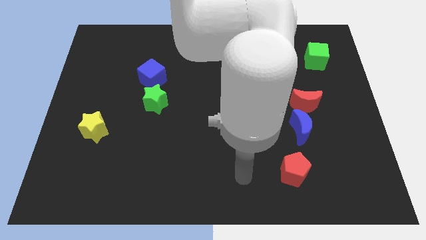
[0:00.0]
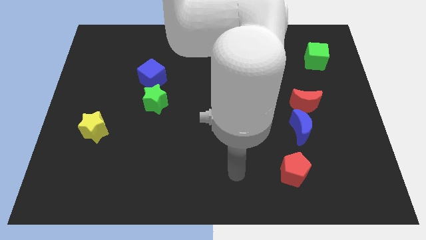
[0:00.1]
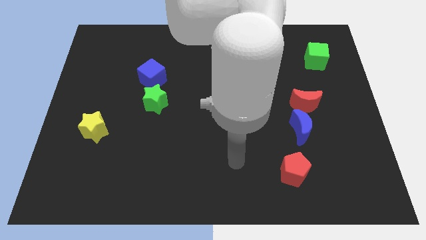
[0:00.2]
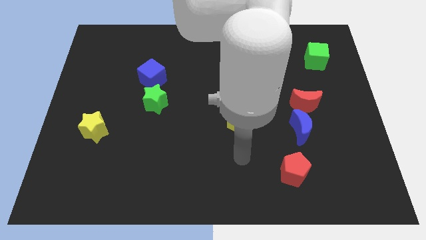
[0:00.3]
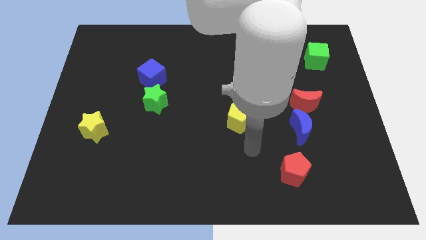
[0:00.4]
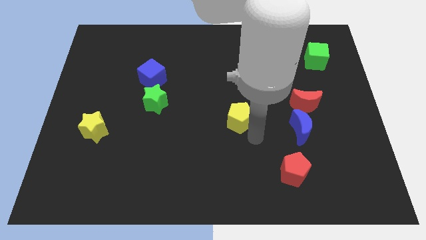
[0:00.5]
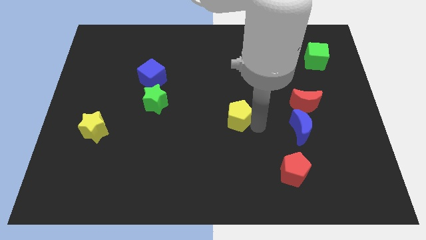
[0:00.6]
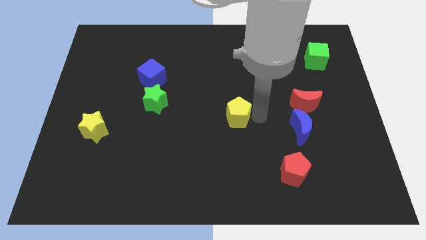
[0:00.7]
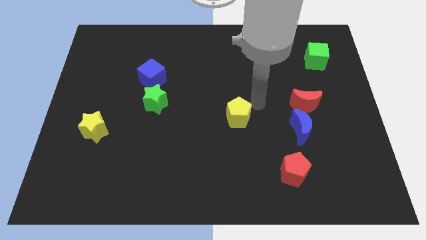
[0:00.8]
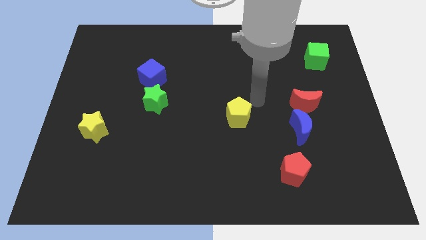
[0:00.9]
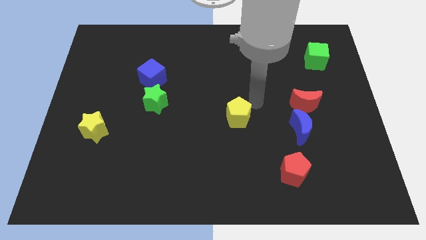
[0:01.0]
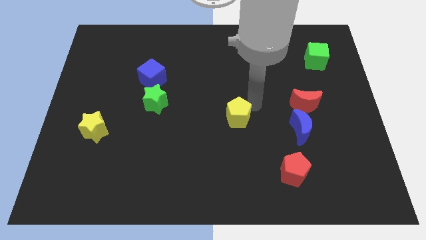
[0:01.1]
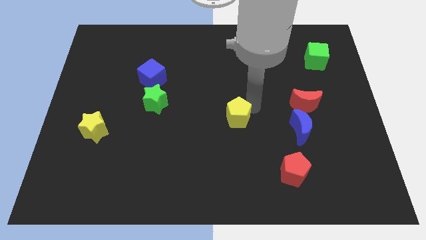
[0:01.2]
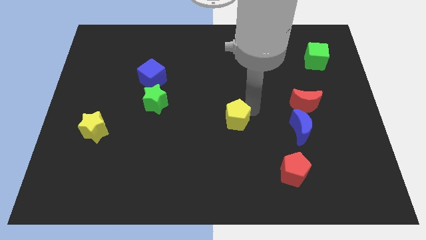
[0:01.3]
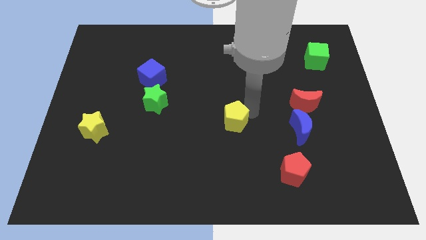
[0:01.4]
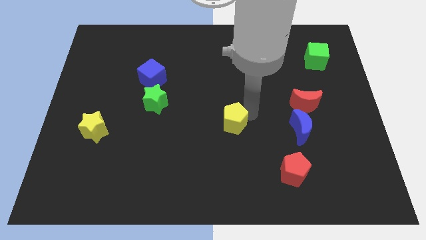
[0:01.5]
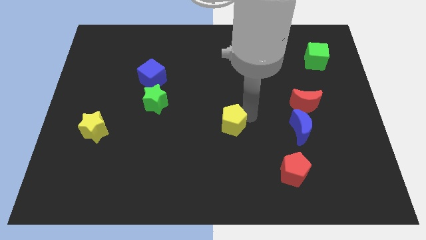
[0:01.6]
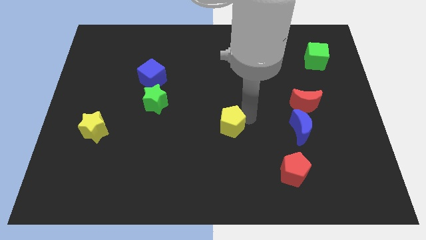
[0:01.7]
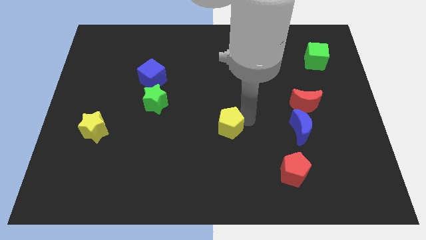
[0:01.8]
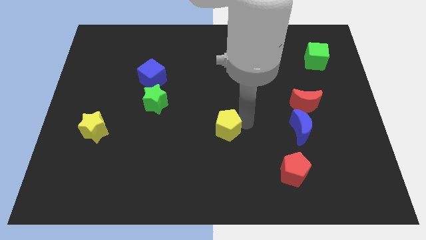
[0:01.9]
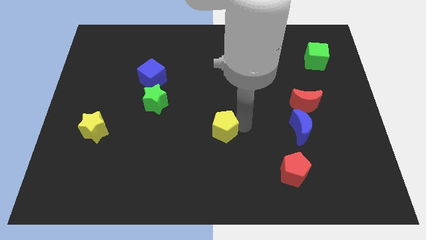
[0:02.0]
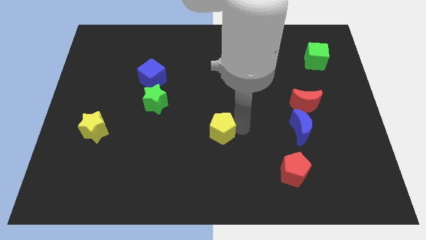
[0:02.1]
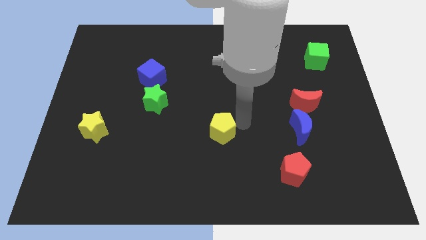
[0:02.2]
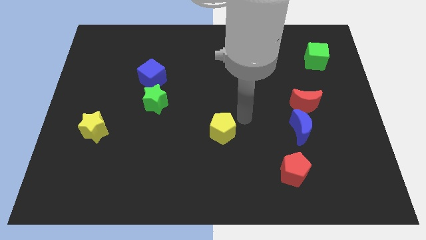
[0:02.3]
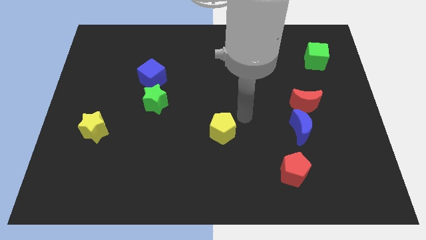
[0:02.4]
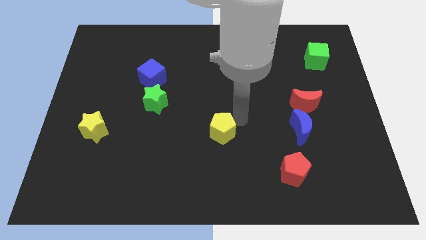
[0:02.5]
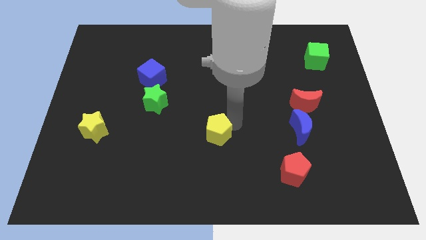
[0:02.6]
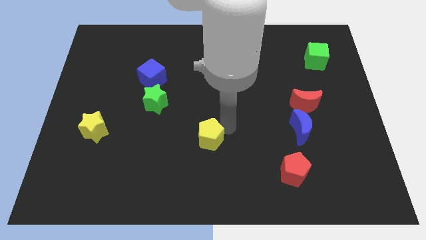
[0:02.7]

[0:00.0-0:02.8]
slightly slide the yellow pentagon downwards and left diagonally

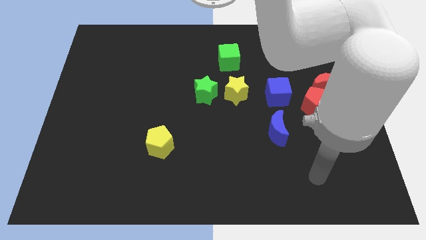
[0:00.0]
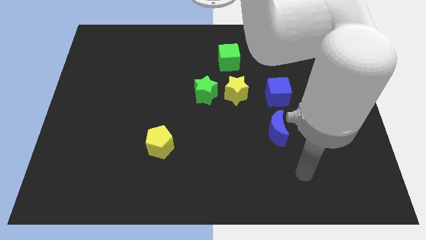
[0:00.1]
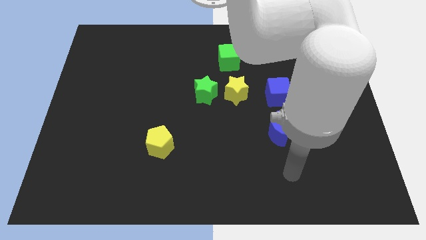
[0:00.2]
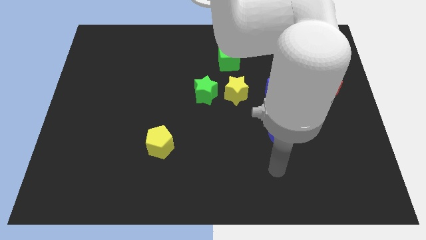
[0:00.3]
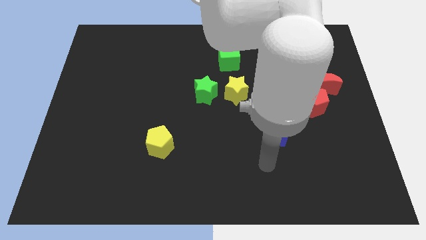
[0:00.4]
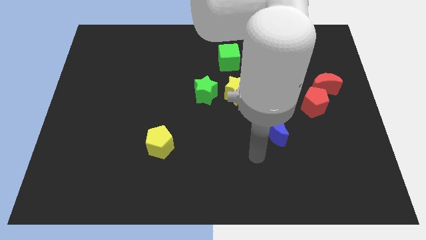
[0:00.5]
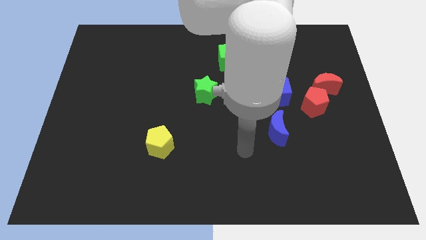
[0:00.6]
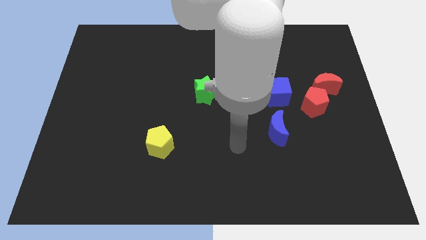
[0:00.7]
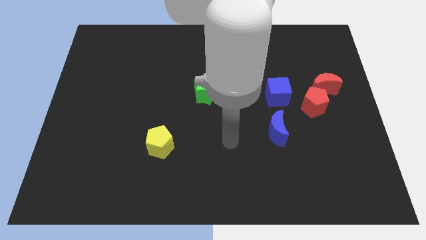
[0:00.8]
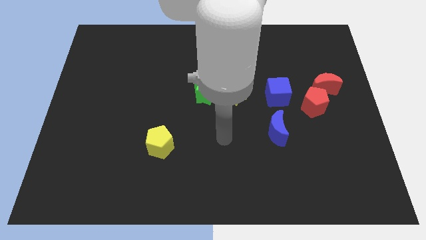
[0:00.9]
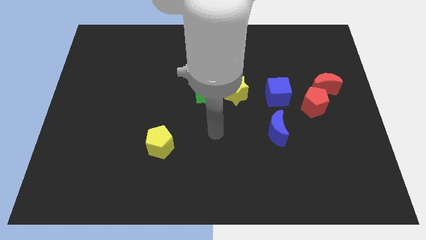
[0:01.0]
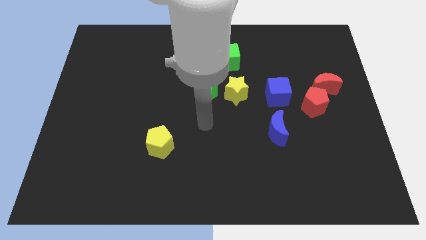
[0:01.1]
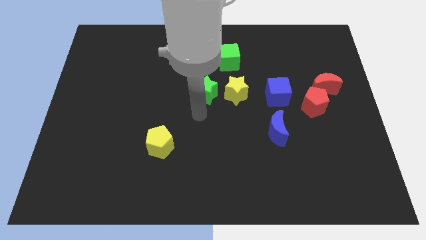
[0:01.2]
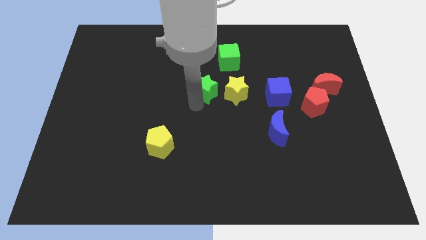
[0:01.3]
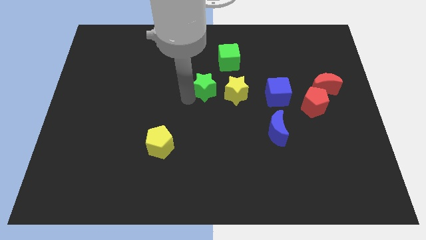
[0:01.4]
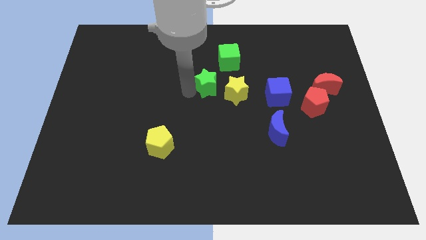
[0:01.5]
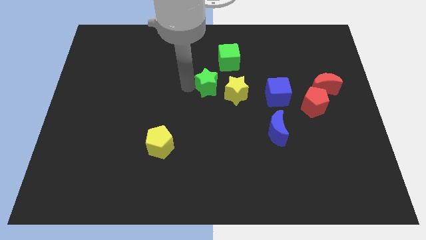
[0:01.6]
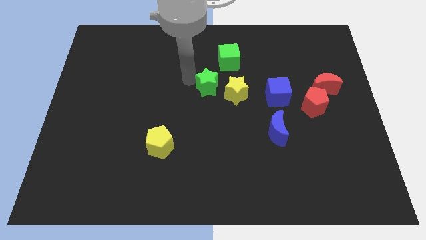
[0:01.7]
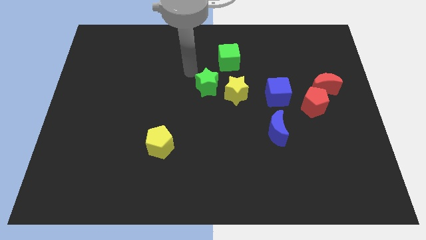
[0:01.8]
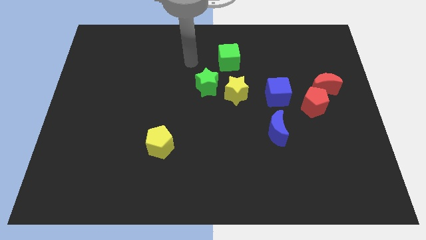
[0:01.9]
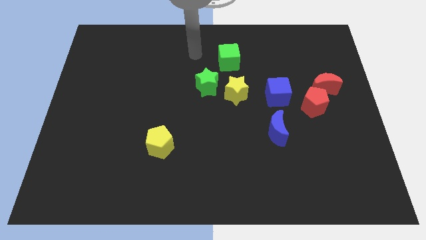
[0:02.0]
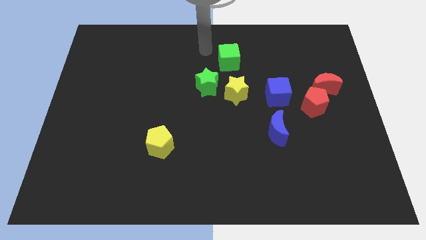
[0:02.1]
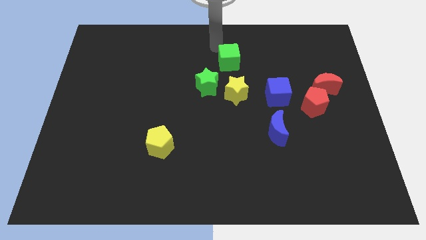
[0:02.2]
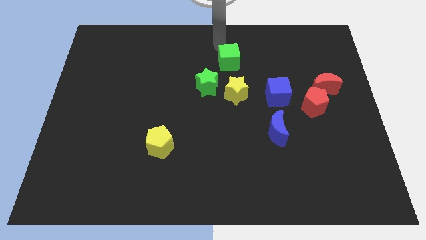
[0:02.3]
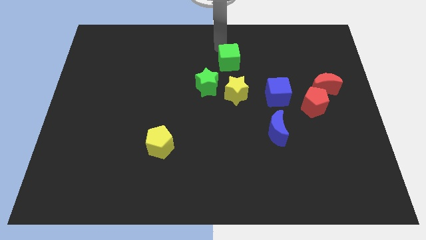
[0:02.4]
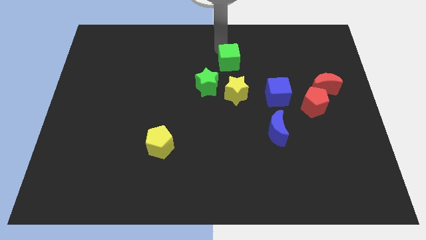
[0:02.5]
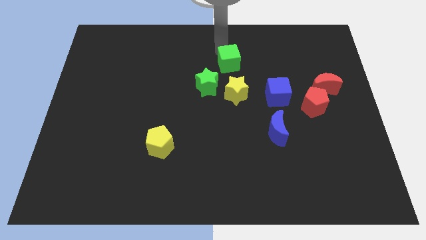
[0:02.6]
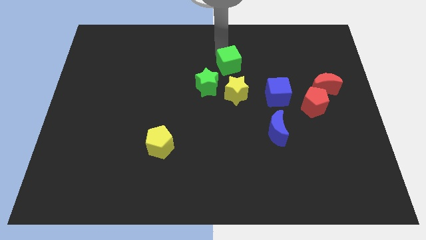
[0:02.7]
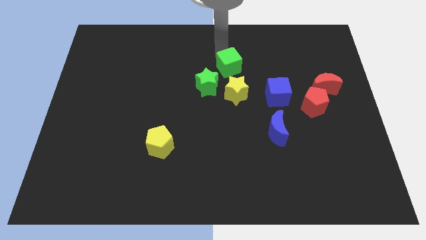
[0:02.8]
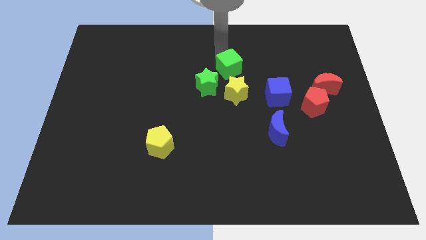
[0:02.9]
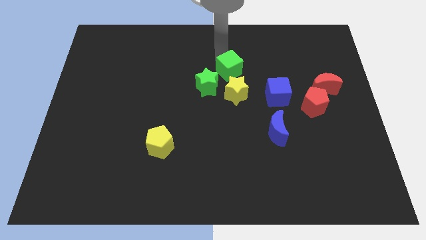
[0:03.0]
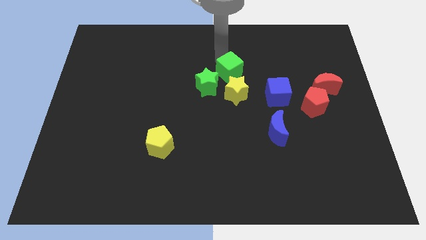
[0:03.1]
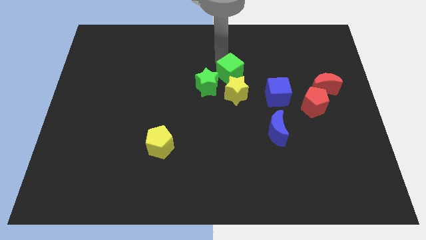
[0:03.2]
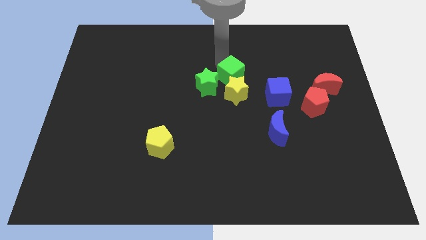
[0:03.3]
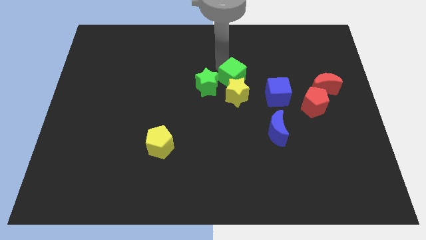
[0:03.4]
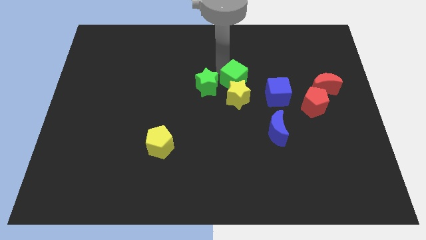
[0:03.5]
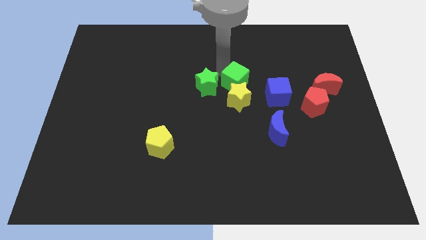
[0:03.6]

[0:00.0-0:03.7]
move the green cube a little down

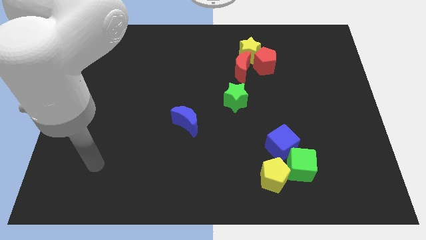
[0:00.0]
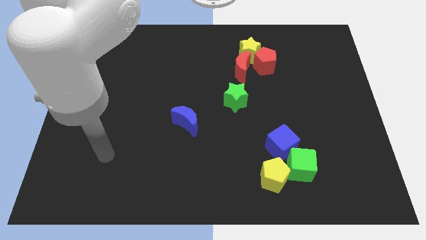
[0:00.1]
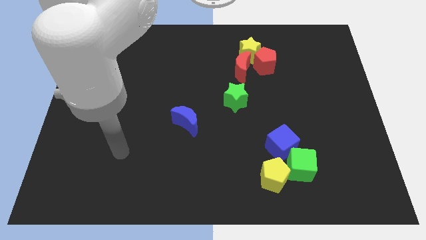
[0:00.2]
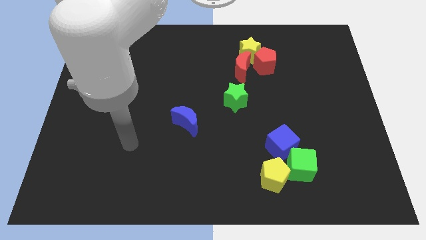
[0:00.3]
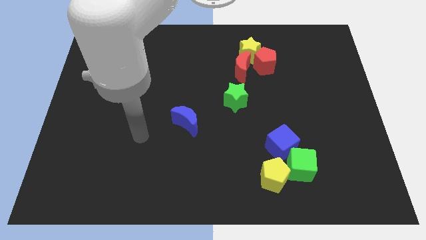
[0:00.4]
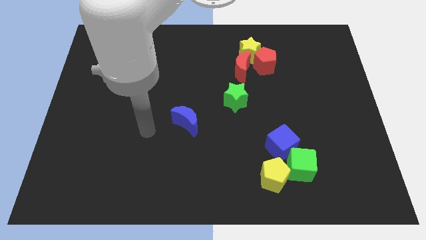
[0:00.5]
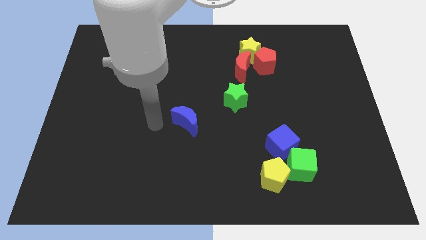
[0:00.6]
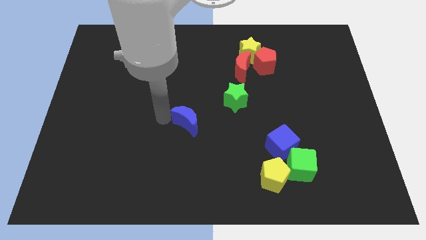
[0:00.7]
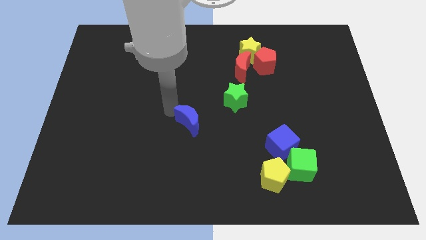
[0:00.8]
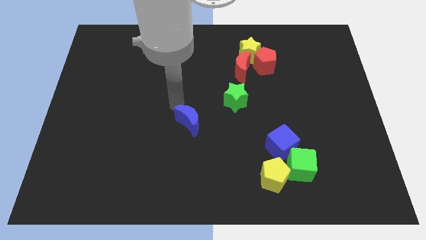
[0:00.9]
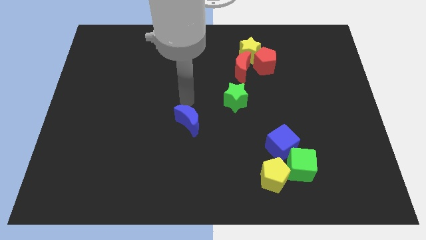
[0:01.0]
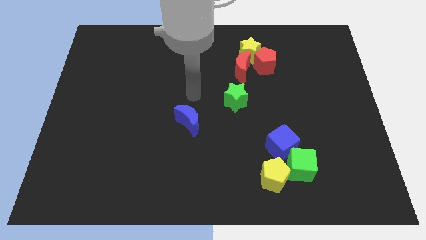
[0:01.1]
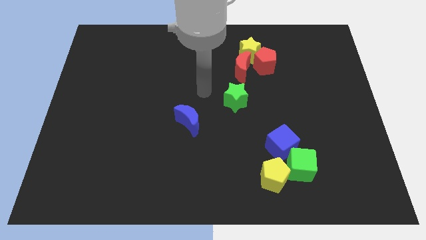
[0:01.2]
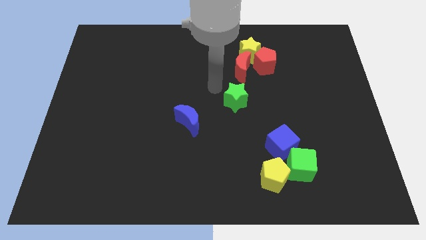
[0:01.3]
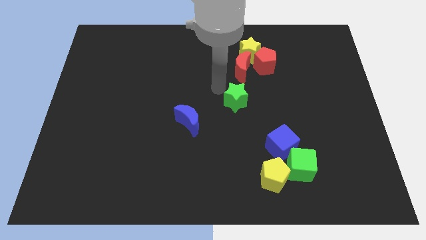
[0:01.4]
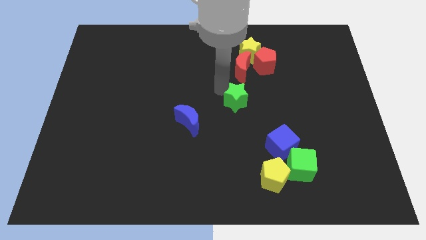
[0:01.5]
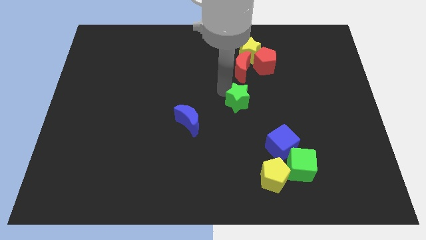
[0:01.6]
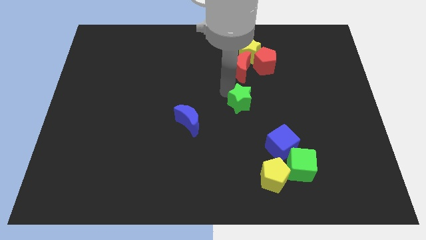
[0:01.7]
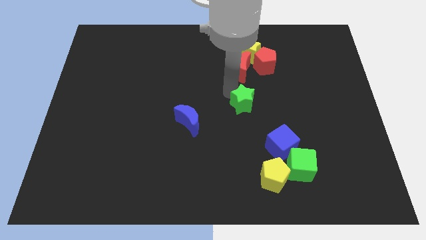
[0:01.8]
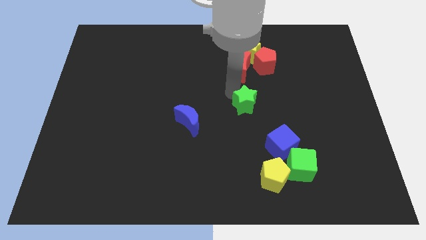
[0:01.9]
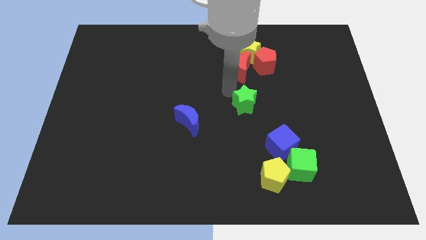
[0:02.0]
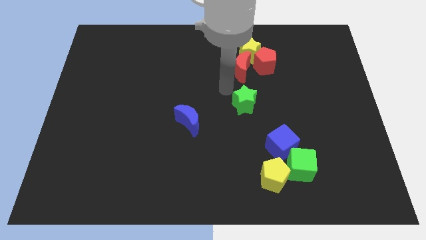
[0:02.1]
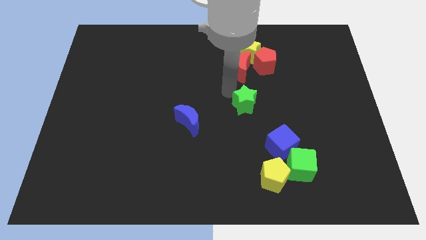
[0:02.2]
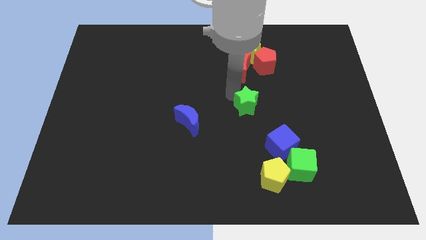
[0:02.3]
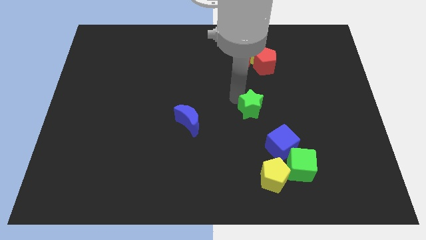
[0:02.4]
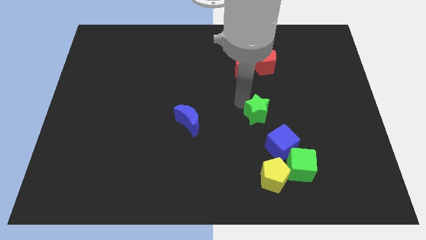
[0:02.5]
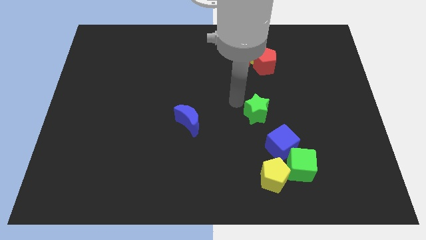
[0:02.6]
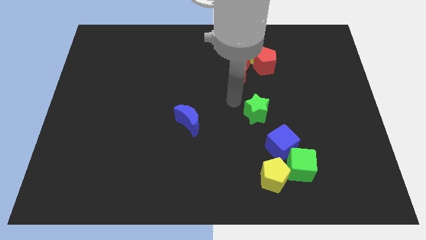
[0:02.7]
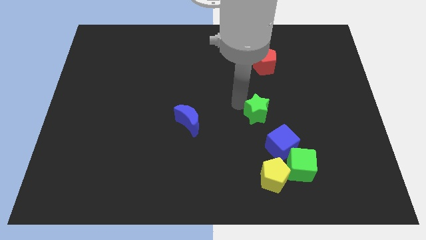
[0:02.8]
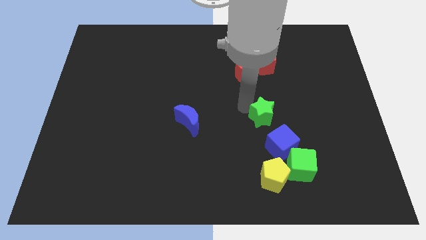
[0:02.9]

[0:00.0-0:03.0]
push the green star a bit diagonally downwards and to the right
